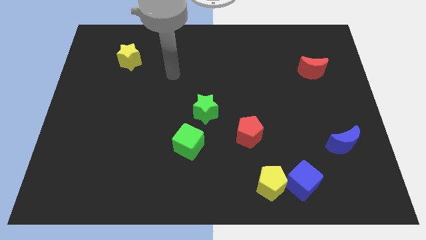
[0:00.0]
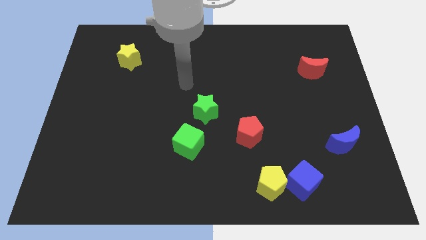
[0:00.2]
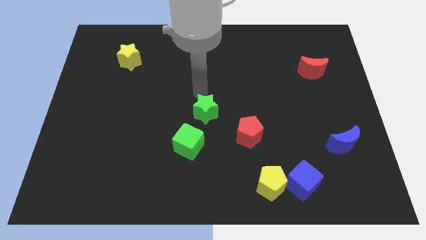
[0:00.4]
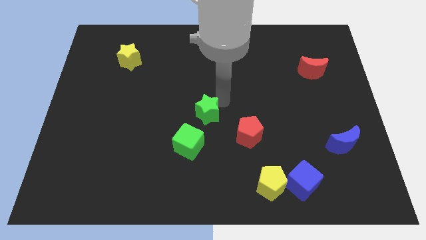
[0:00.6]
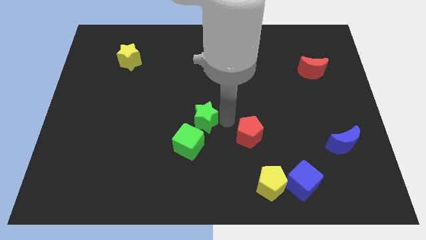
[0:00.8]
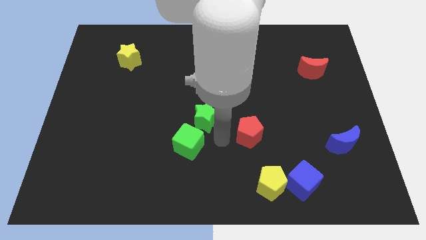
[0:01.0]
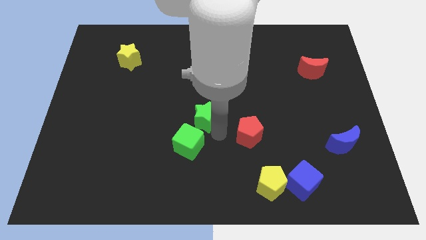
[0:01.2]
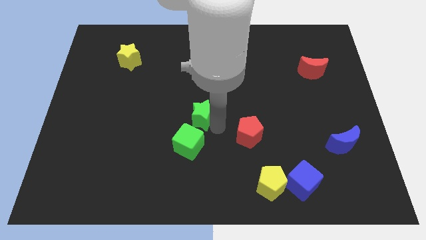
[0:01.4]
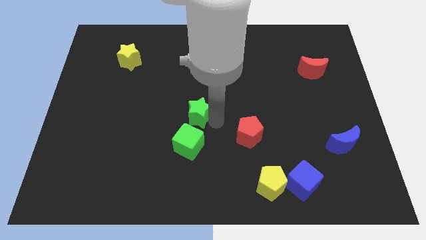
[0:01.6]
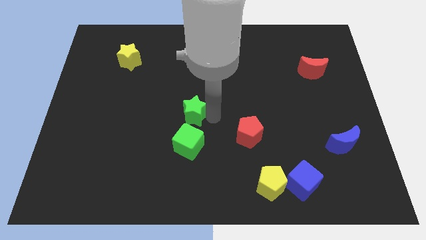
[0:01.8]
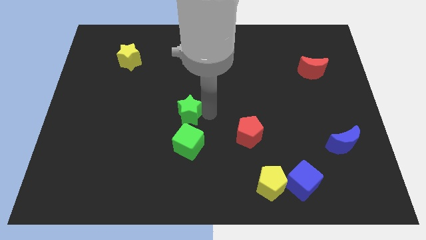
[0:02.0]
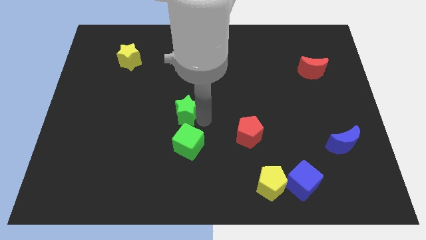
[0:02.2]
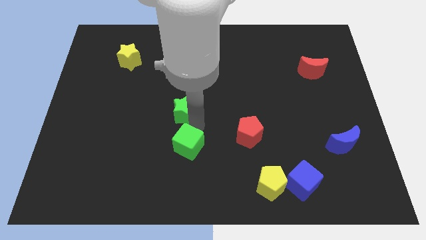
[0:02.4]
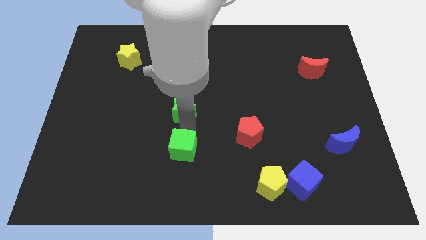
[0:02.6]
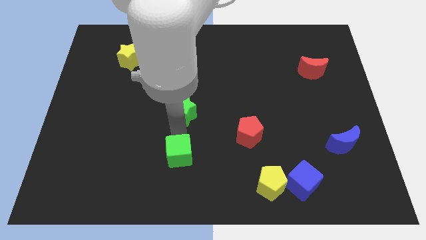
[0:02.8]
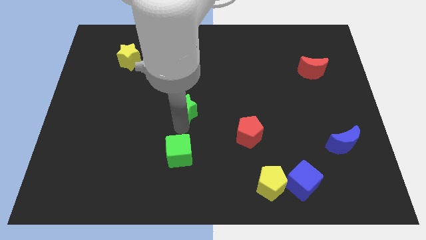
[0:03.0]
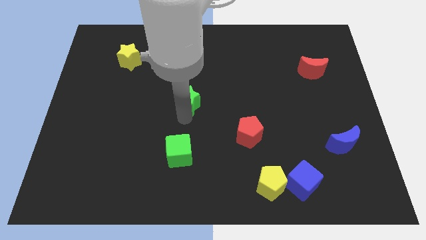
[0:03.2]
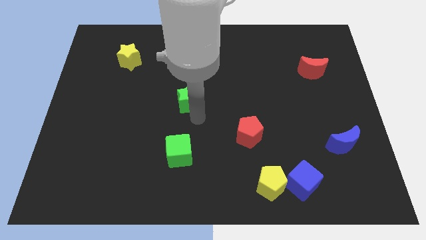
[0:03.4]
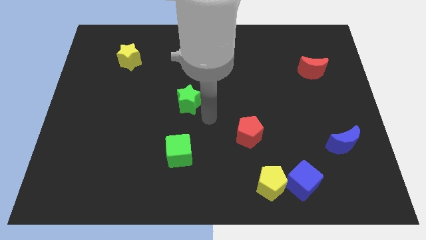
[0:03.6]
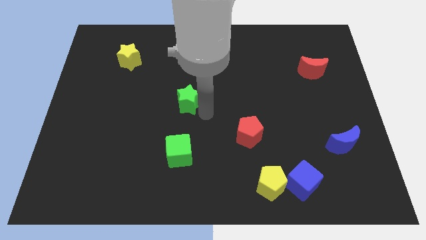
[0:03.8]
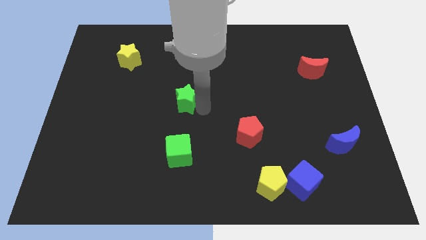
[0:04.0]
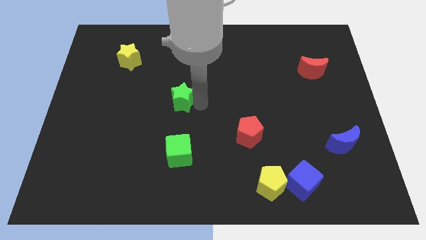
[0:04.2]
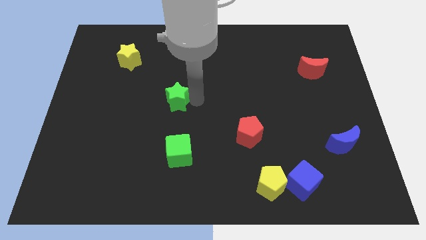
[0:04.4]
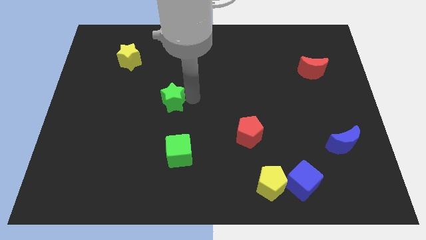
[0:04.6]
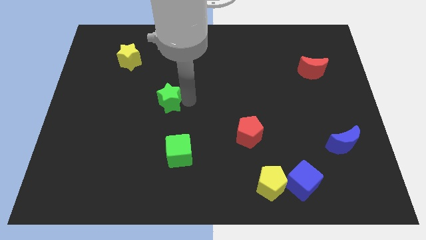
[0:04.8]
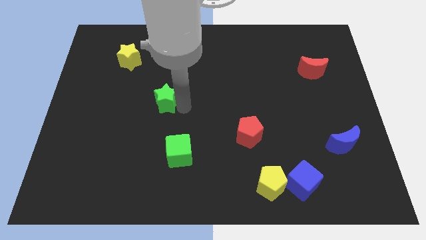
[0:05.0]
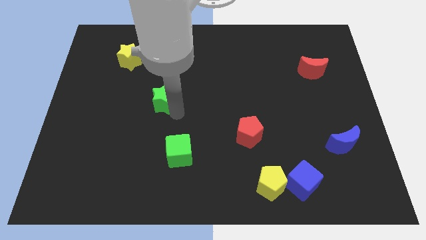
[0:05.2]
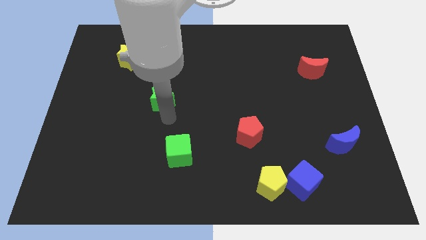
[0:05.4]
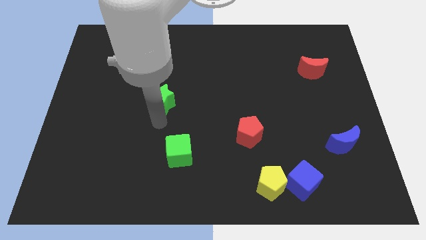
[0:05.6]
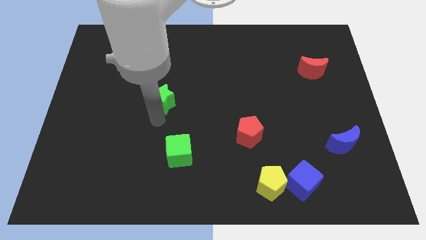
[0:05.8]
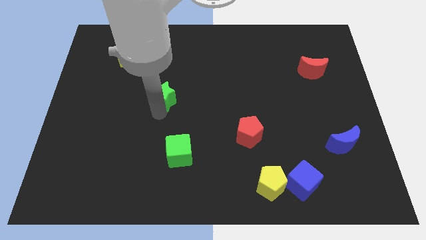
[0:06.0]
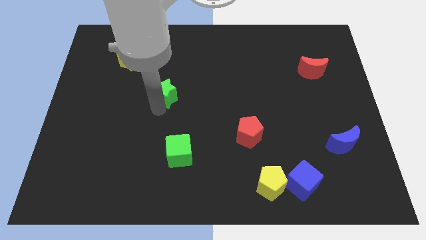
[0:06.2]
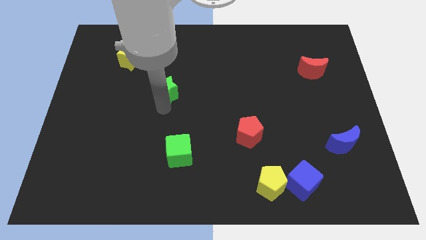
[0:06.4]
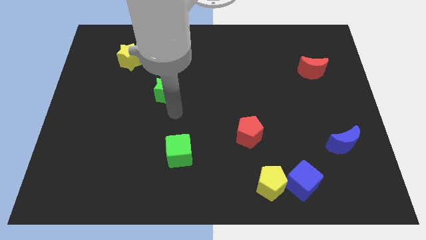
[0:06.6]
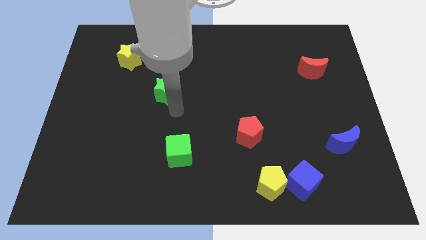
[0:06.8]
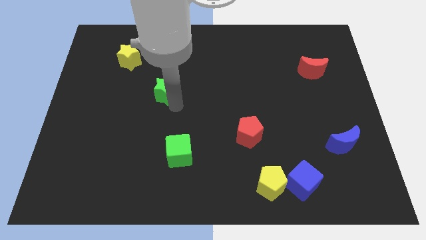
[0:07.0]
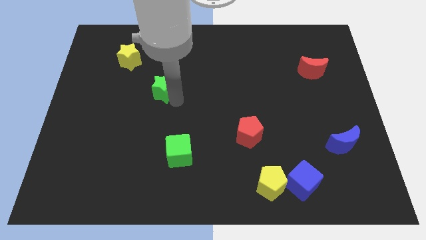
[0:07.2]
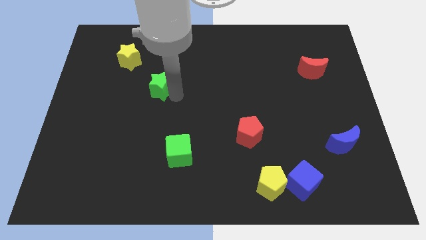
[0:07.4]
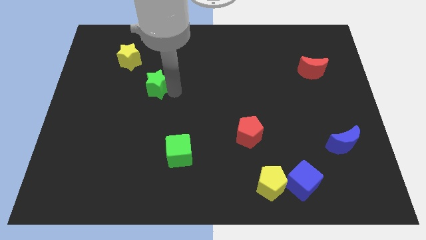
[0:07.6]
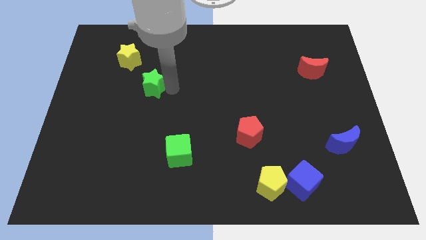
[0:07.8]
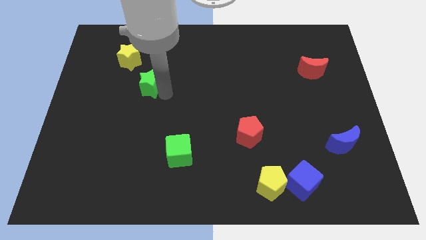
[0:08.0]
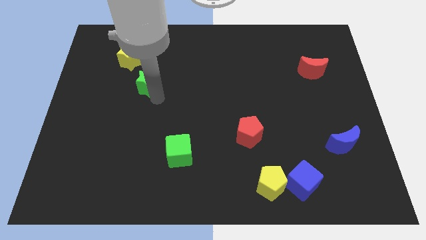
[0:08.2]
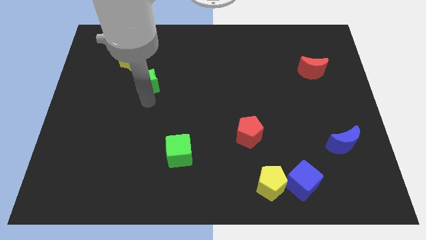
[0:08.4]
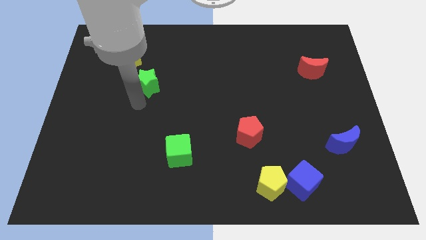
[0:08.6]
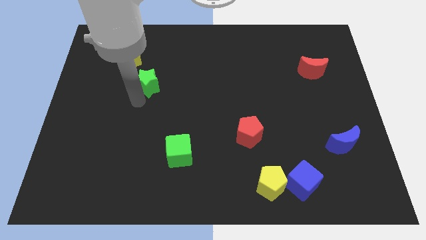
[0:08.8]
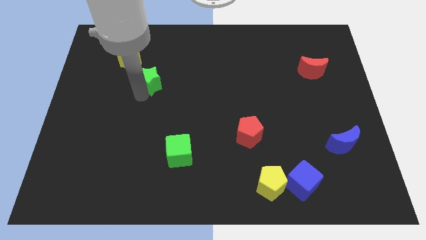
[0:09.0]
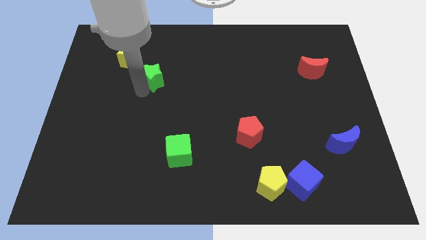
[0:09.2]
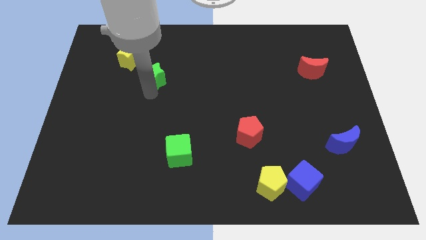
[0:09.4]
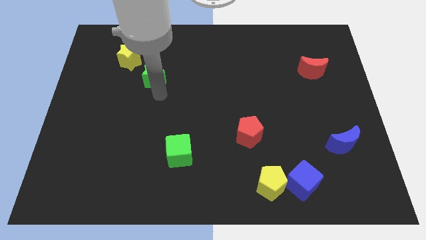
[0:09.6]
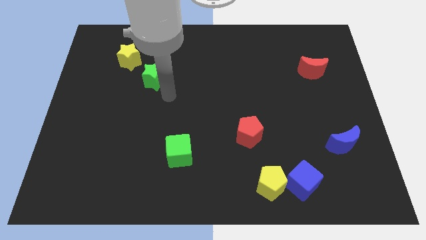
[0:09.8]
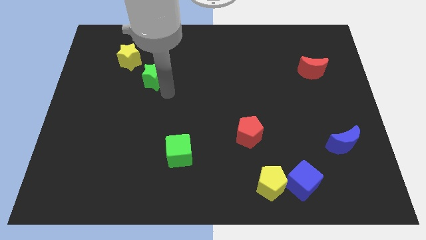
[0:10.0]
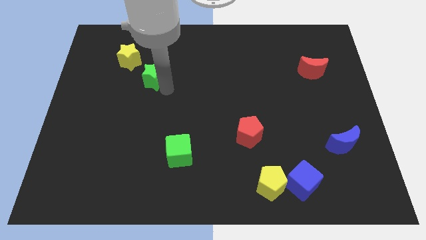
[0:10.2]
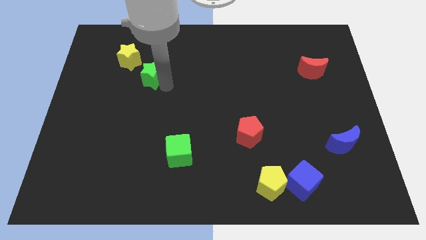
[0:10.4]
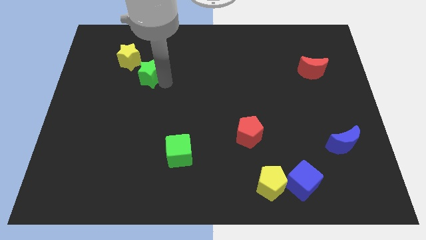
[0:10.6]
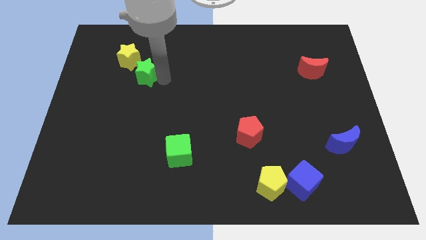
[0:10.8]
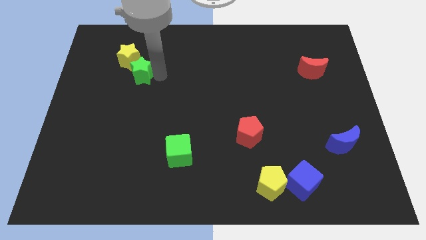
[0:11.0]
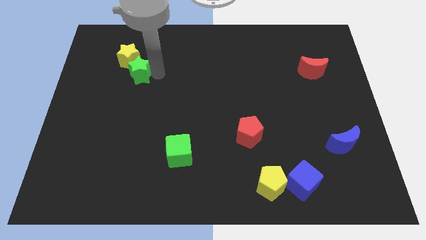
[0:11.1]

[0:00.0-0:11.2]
slide the green star close to the yellow star

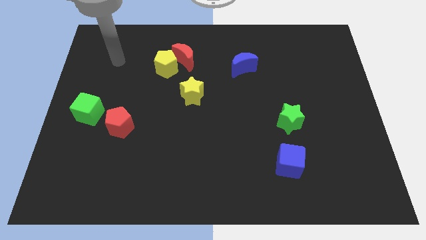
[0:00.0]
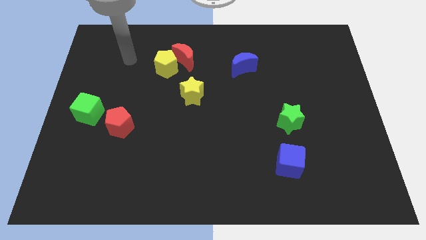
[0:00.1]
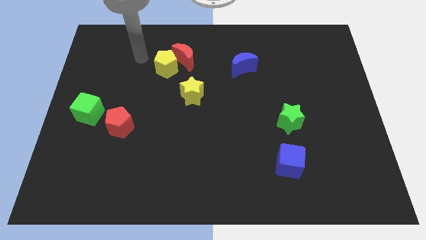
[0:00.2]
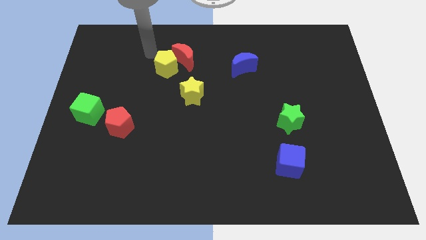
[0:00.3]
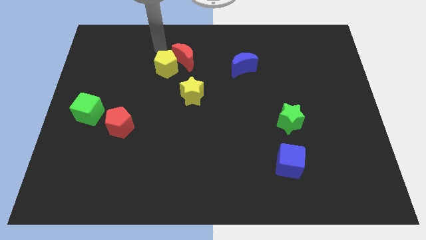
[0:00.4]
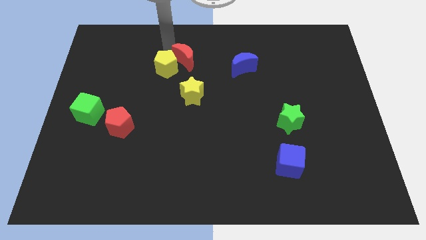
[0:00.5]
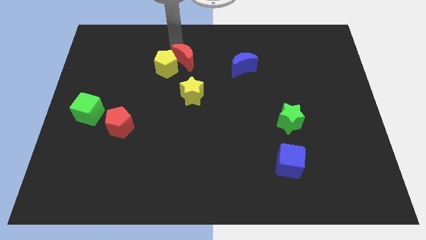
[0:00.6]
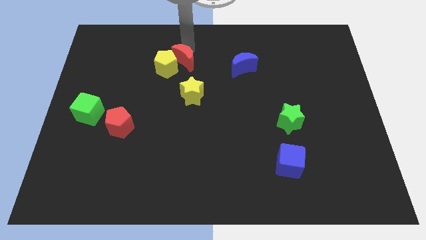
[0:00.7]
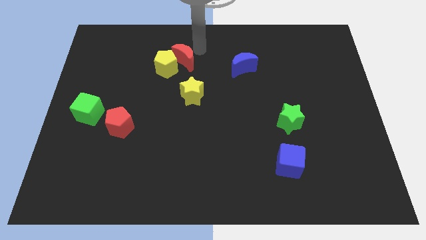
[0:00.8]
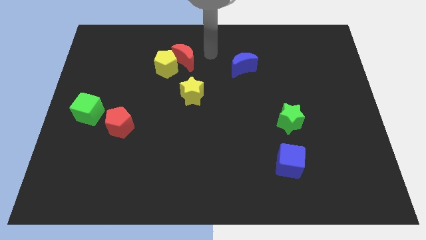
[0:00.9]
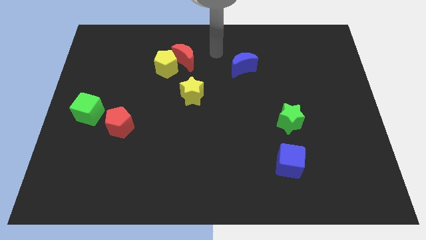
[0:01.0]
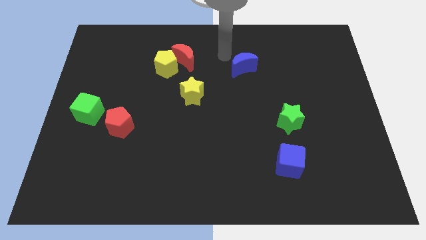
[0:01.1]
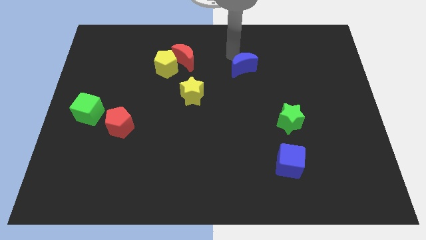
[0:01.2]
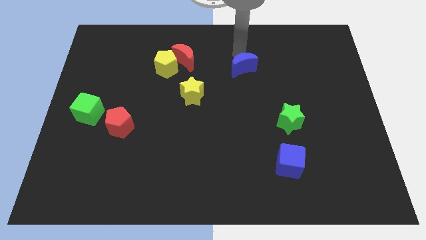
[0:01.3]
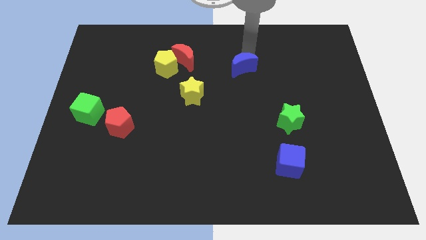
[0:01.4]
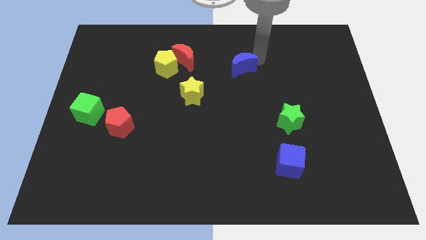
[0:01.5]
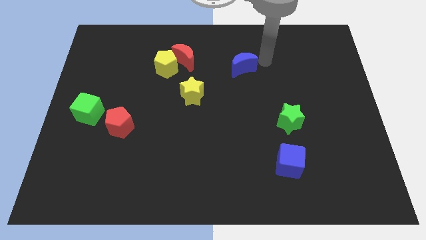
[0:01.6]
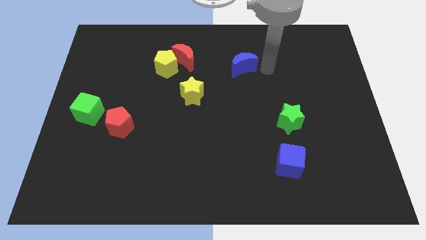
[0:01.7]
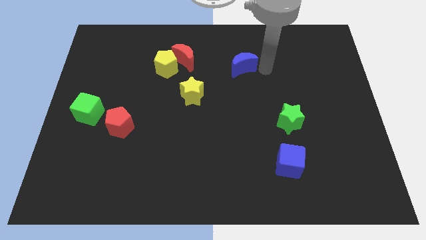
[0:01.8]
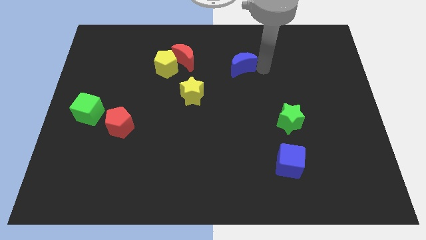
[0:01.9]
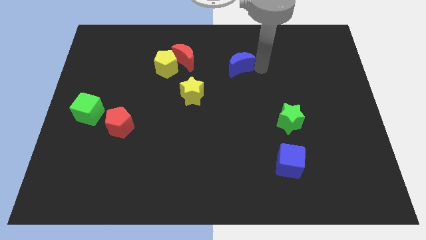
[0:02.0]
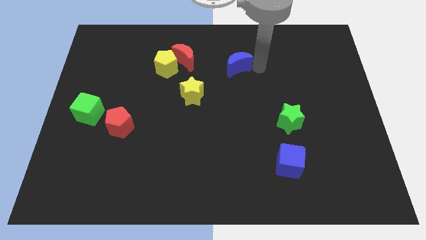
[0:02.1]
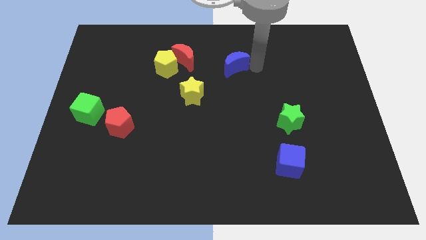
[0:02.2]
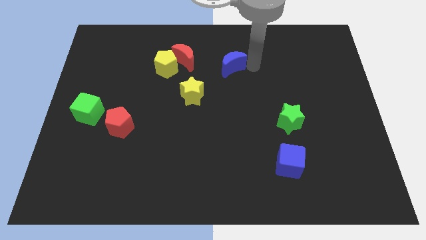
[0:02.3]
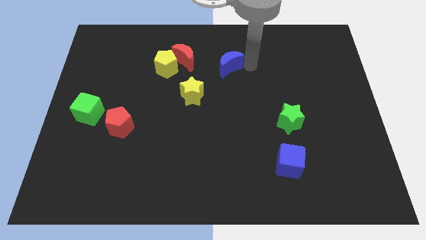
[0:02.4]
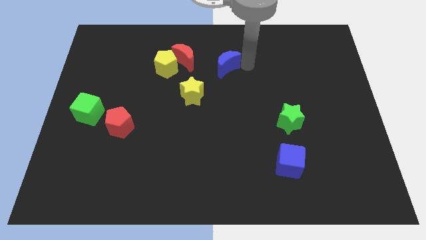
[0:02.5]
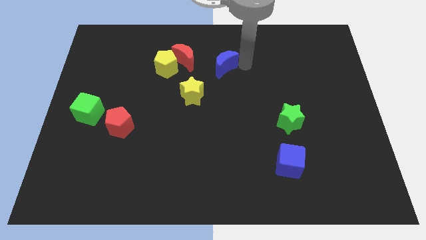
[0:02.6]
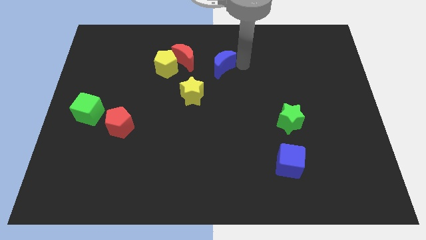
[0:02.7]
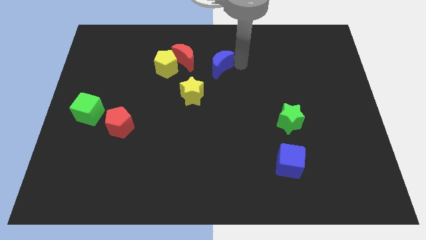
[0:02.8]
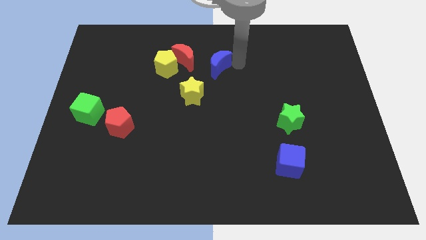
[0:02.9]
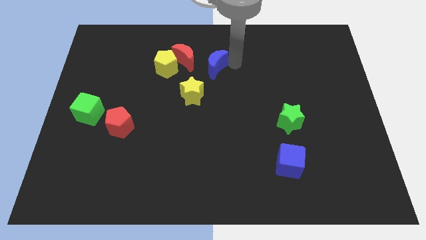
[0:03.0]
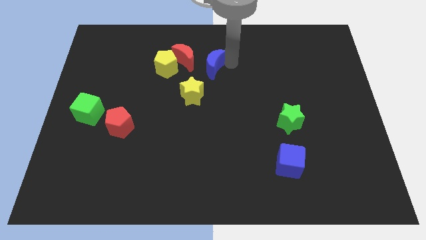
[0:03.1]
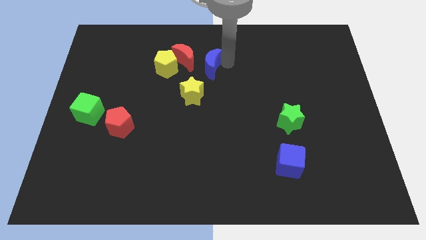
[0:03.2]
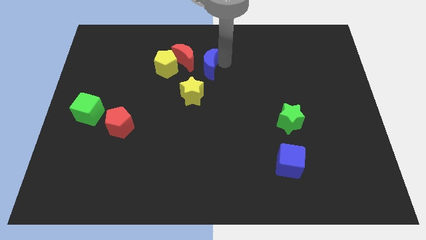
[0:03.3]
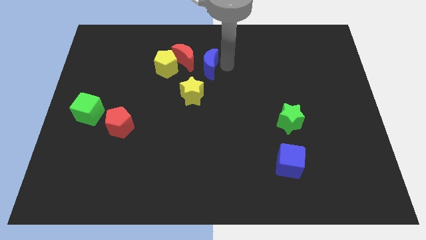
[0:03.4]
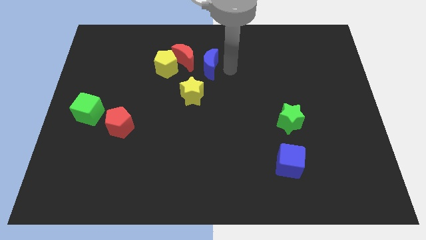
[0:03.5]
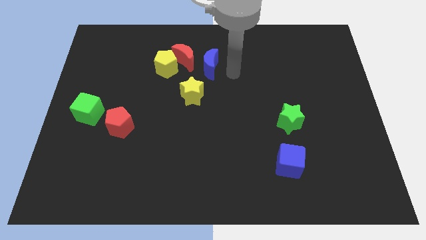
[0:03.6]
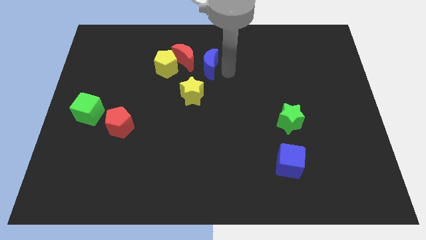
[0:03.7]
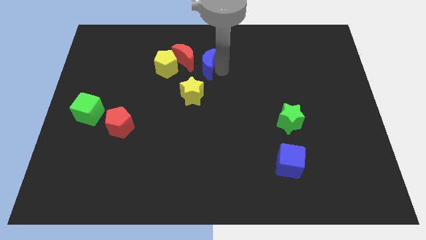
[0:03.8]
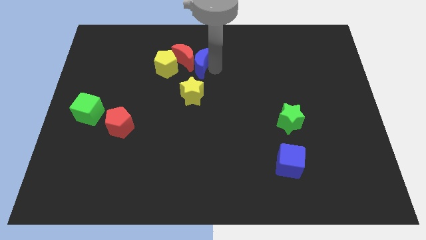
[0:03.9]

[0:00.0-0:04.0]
move the blue moon towards the red moon
